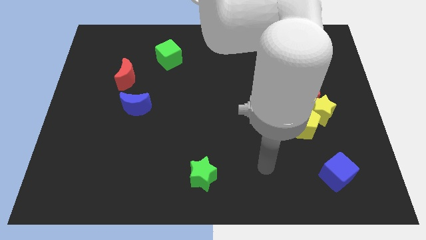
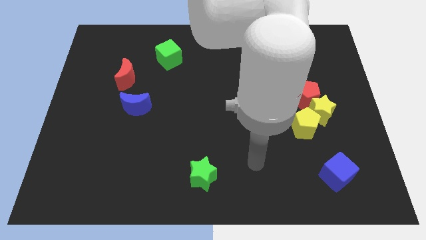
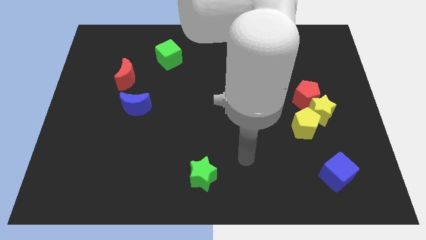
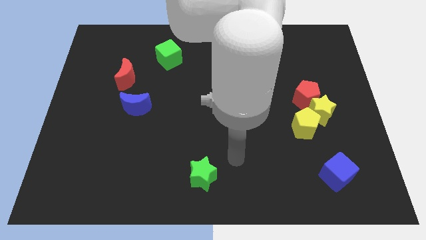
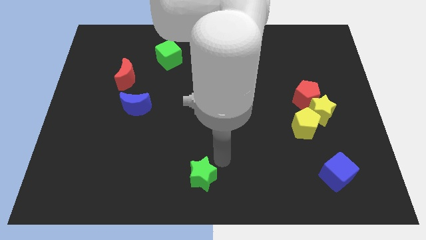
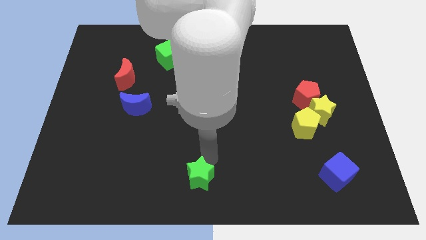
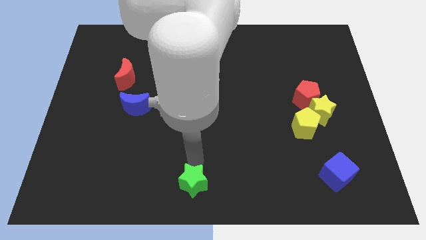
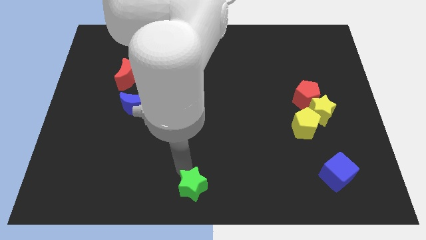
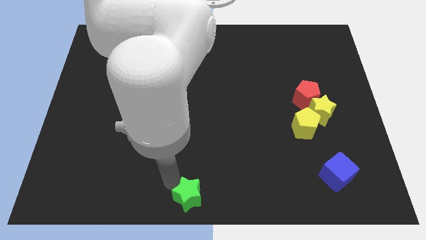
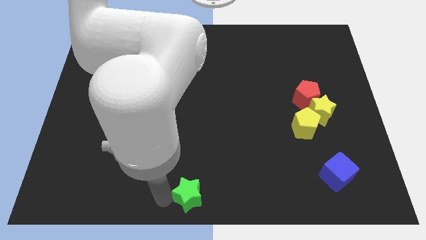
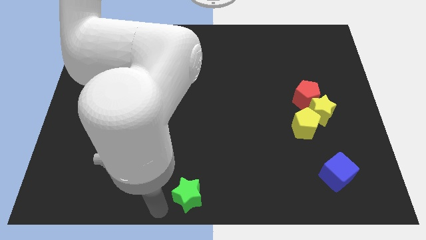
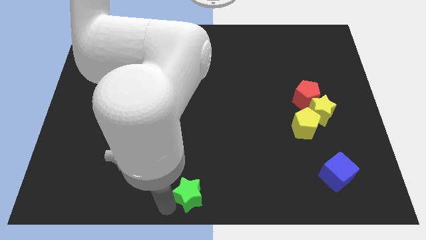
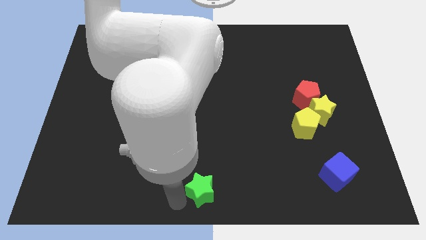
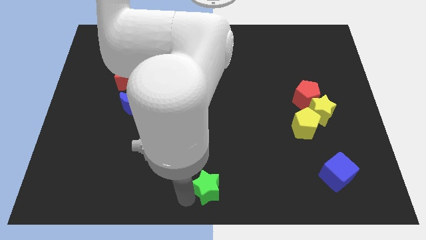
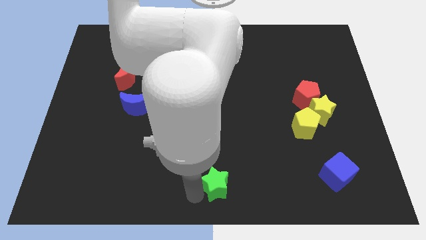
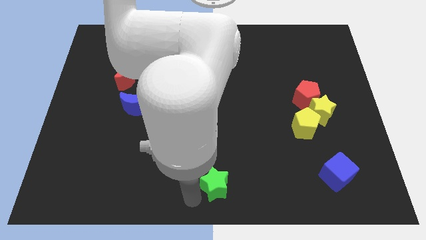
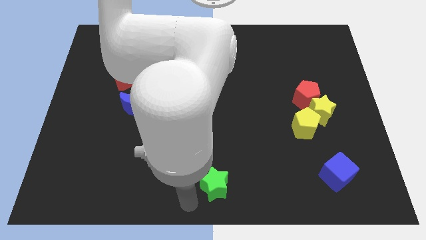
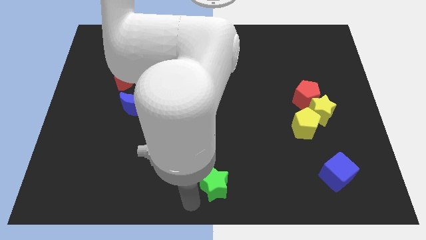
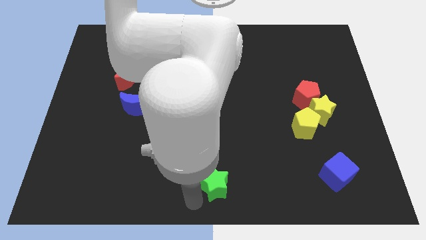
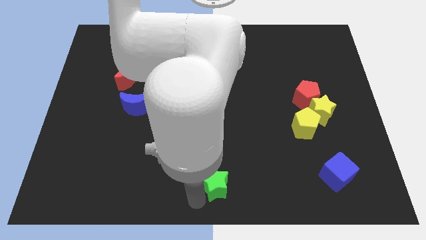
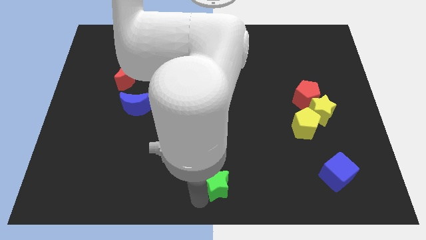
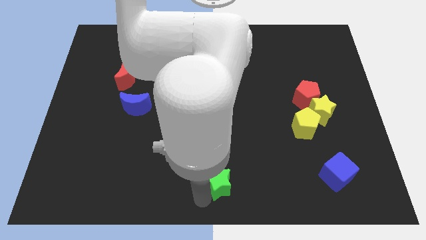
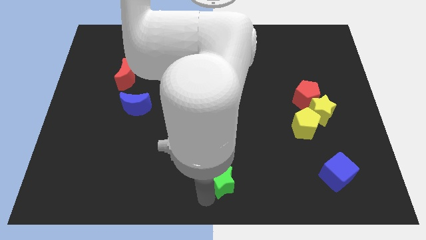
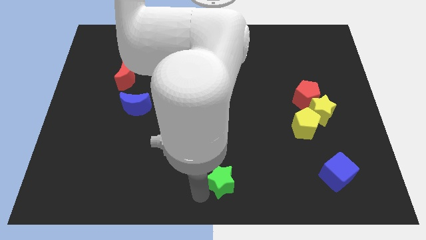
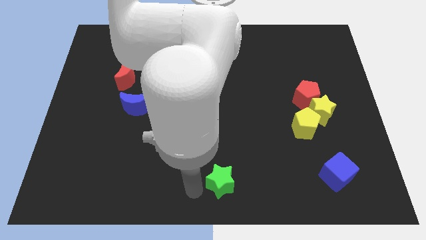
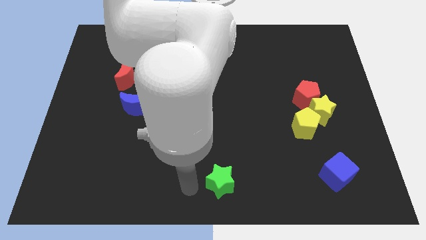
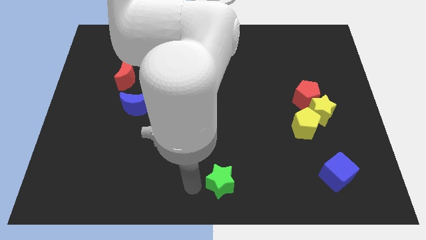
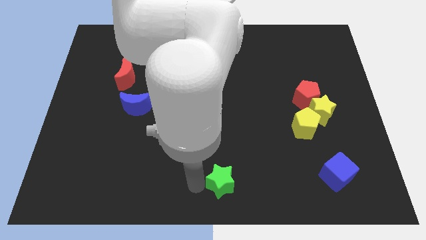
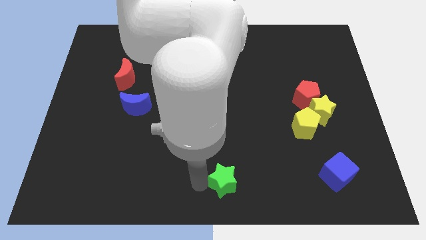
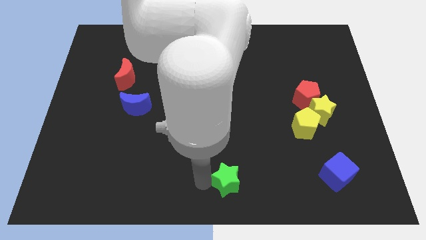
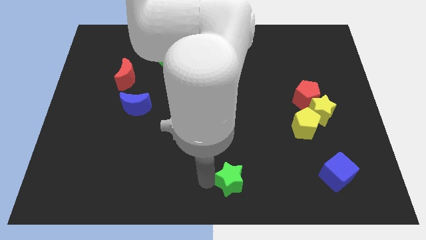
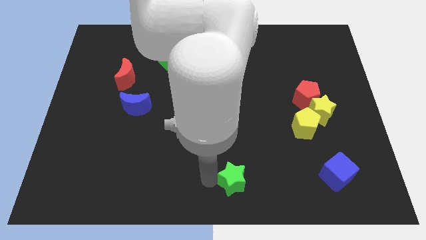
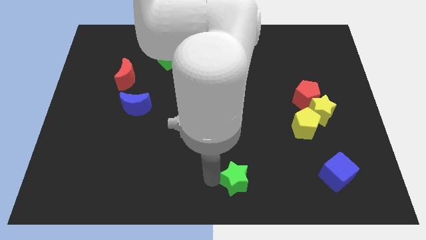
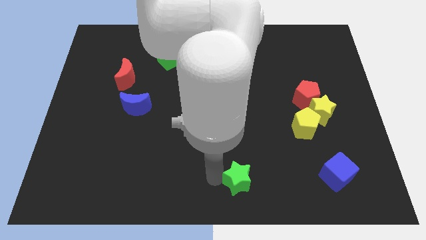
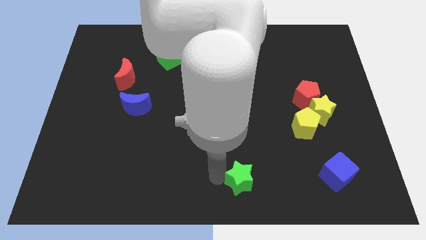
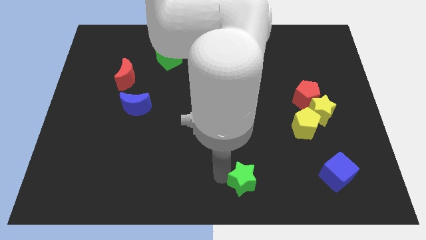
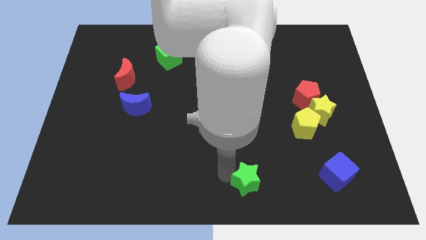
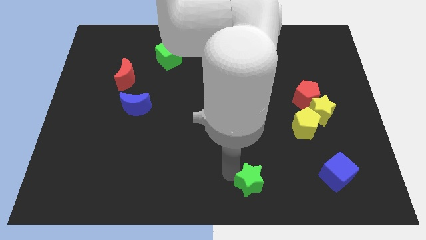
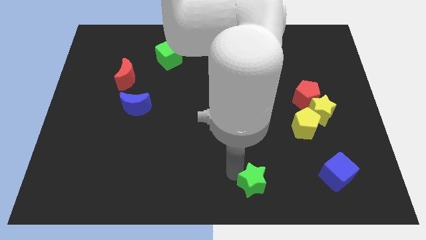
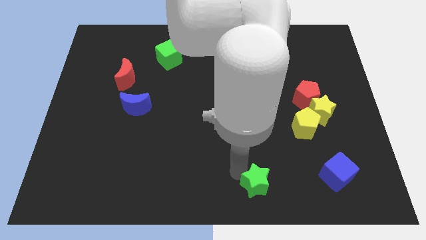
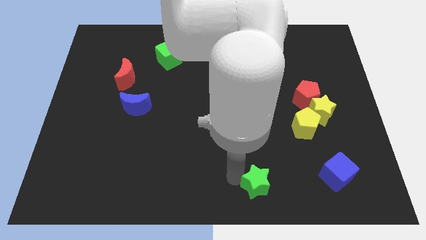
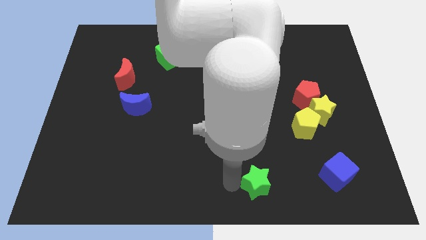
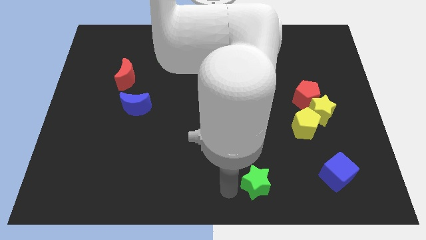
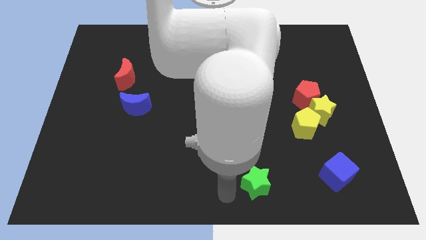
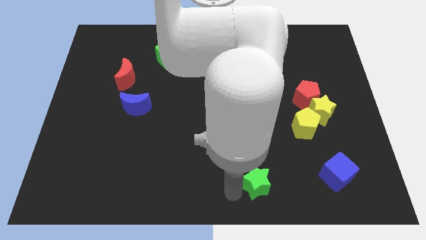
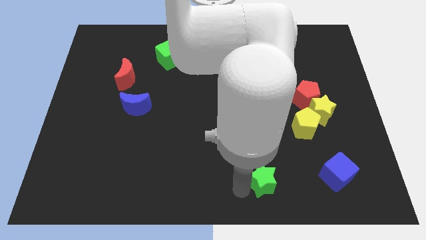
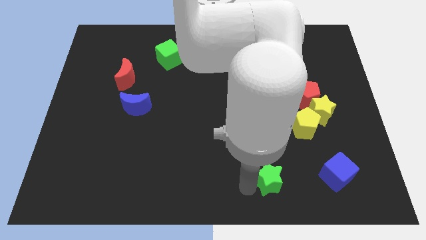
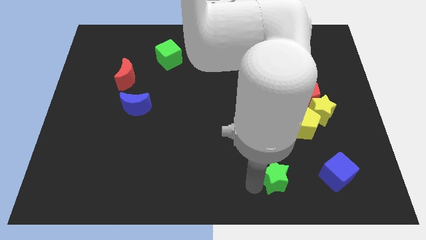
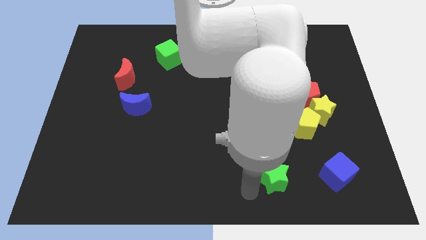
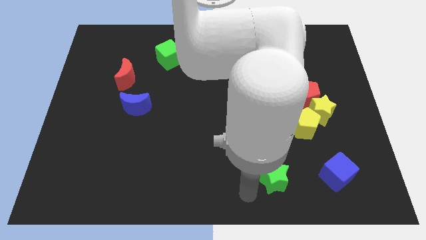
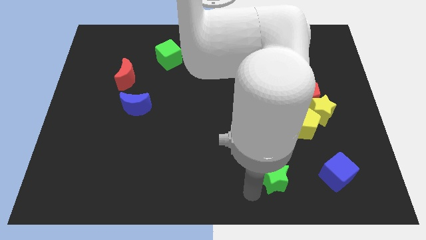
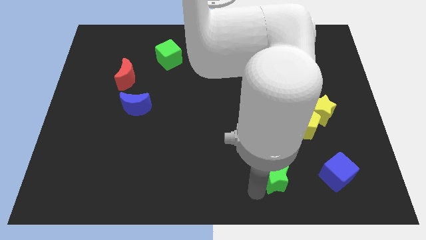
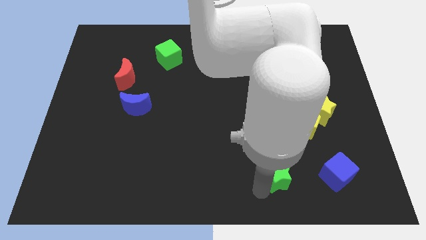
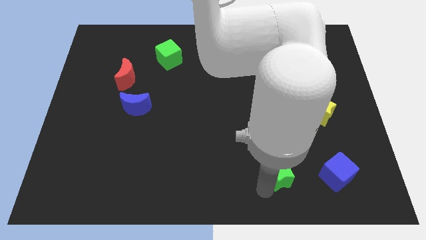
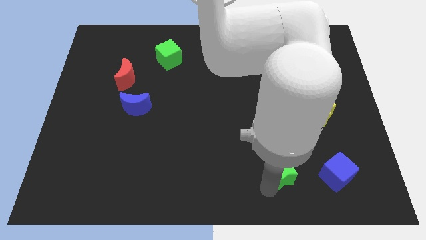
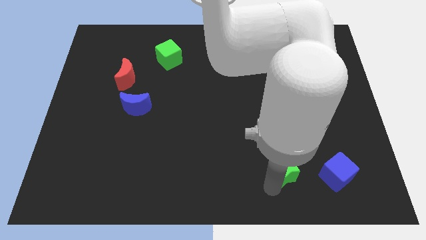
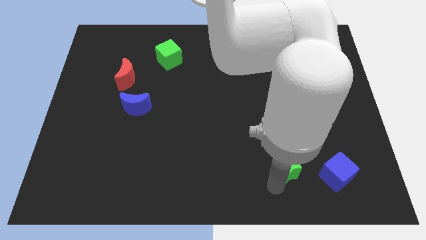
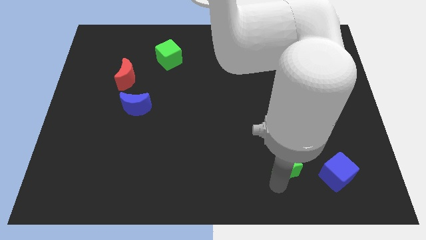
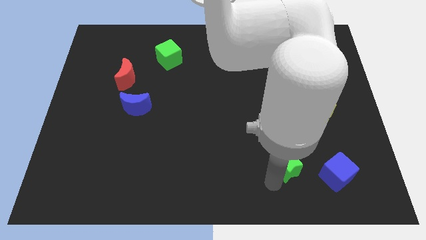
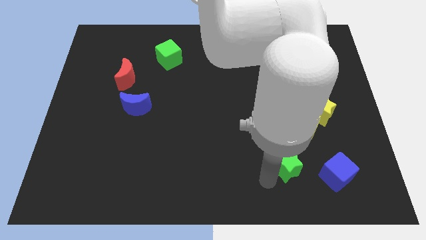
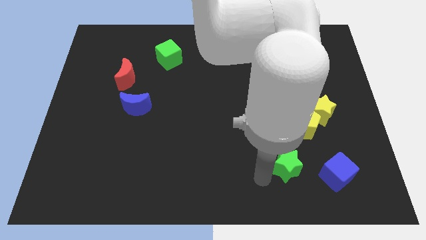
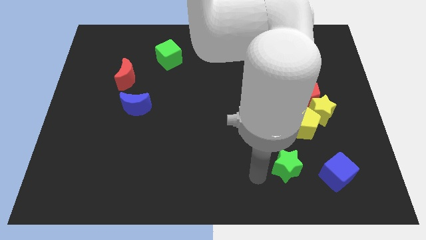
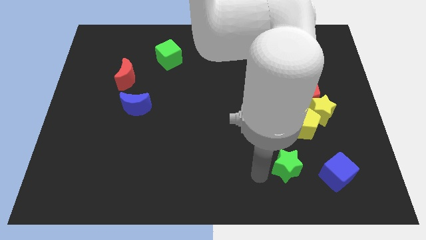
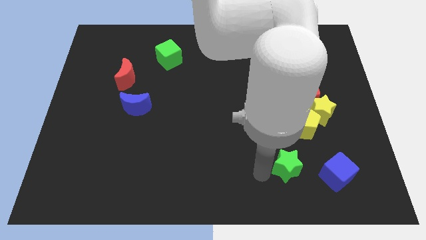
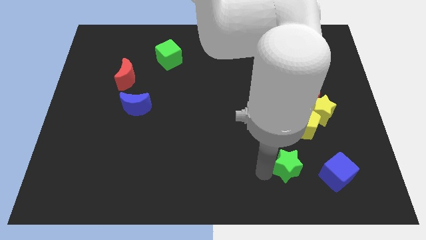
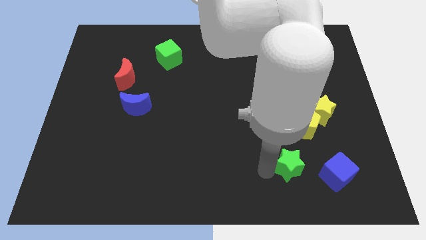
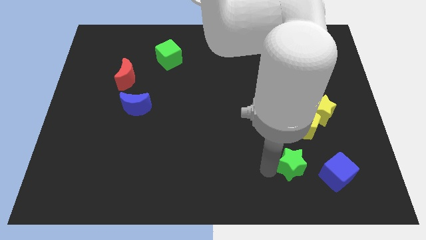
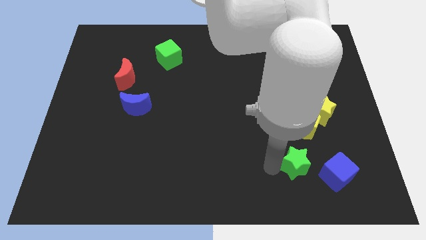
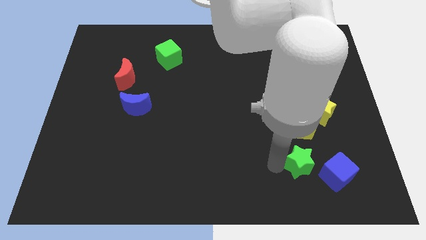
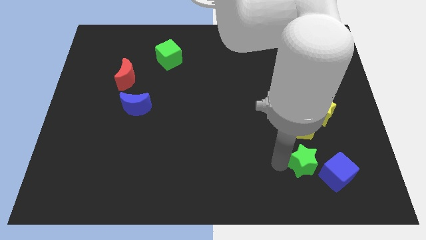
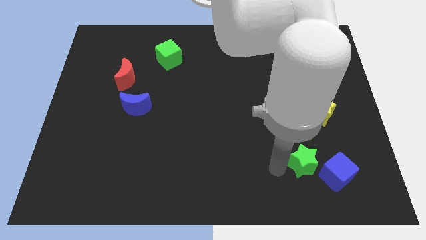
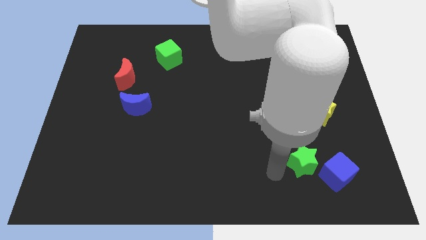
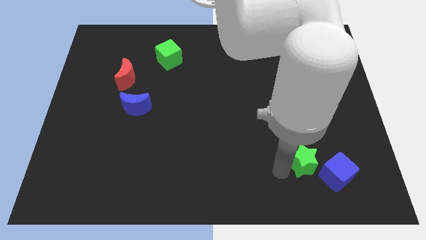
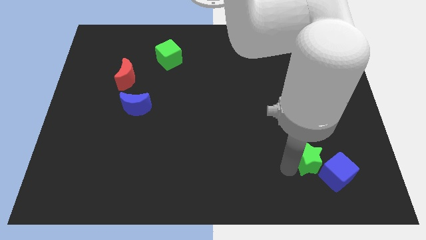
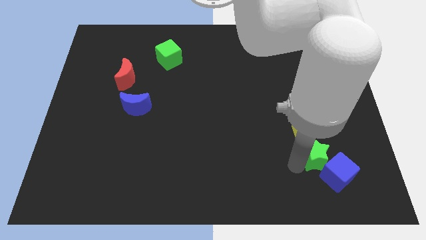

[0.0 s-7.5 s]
move the green star to the bottom of the yellow star
